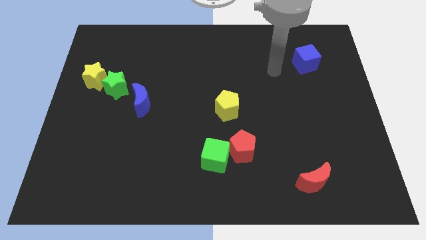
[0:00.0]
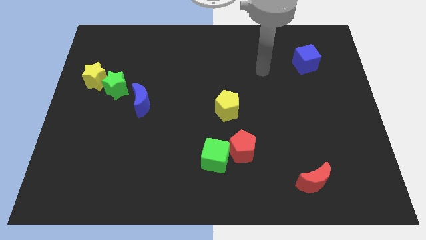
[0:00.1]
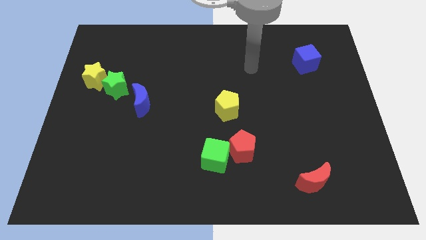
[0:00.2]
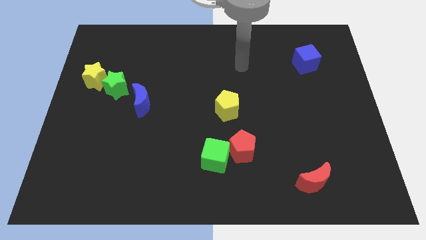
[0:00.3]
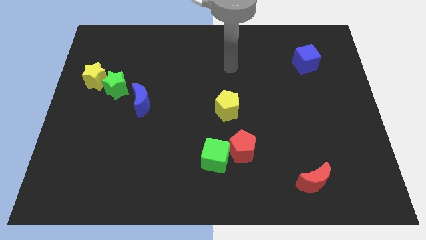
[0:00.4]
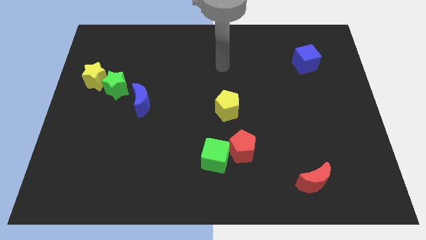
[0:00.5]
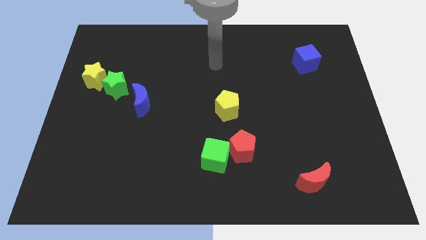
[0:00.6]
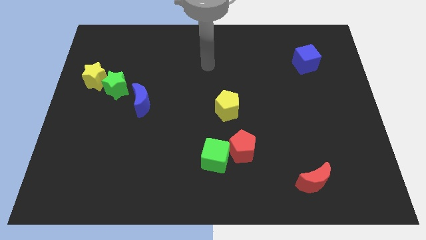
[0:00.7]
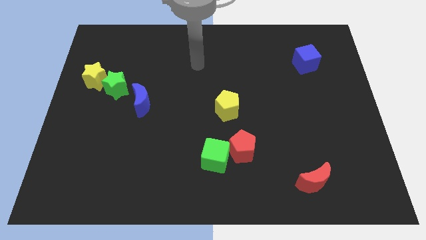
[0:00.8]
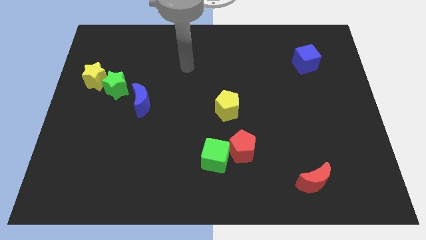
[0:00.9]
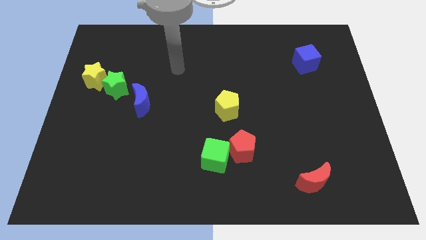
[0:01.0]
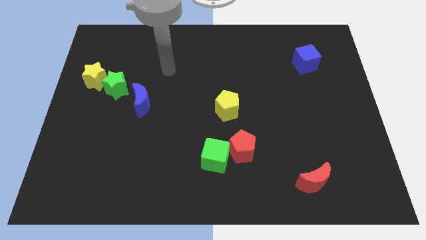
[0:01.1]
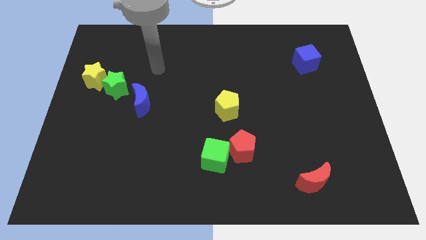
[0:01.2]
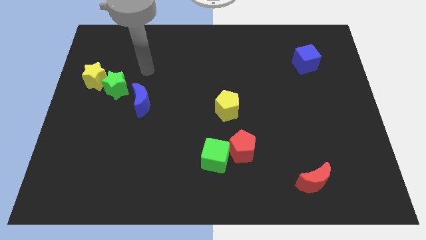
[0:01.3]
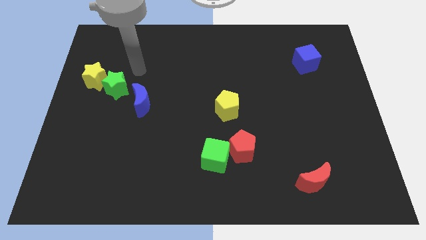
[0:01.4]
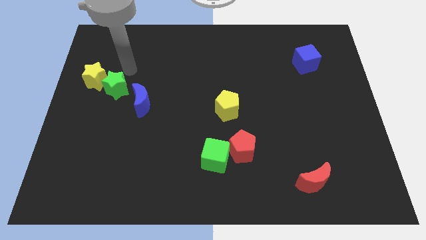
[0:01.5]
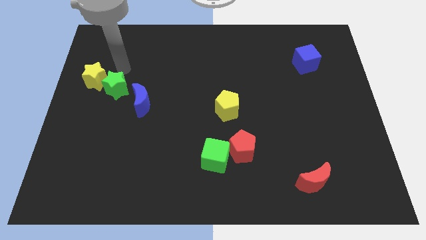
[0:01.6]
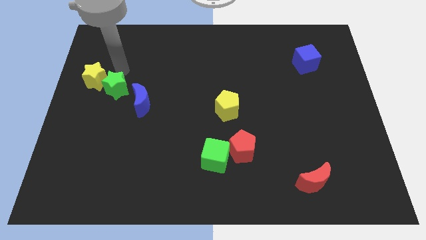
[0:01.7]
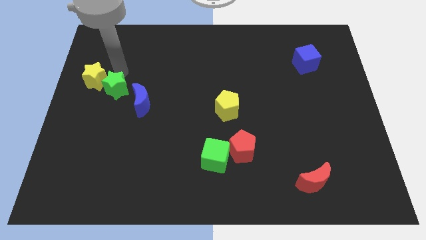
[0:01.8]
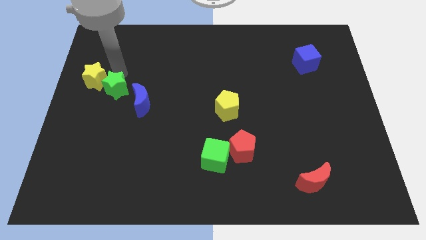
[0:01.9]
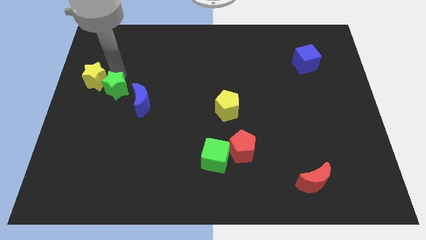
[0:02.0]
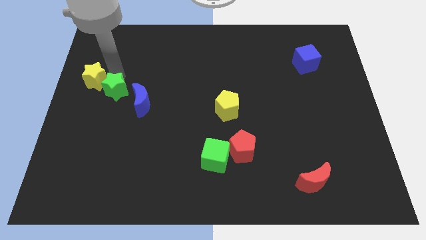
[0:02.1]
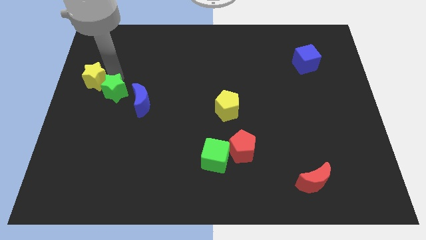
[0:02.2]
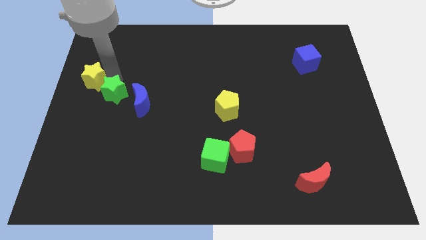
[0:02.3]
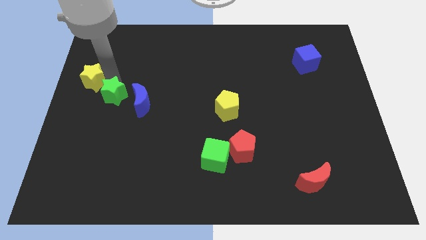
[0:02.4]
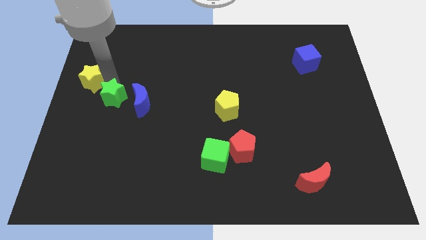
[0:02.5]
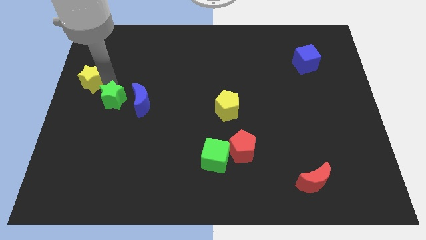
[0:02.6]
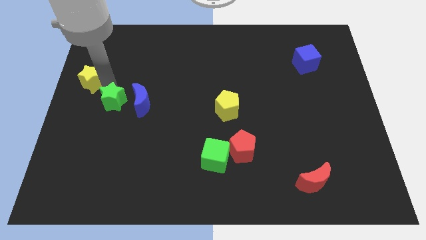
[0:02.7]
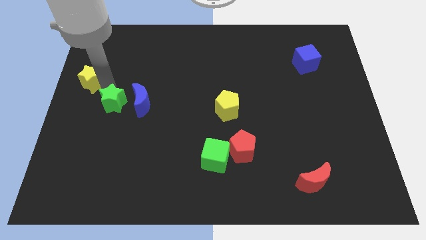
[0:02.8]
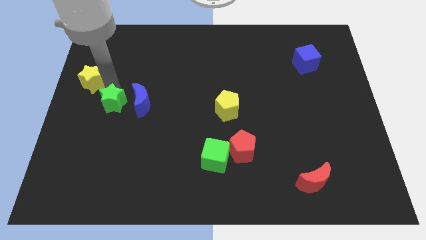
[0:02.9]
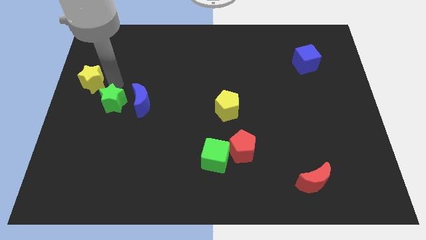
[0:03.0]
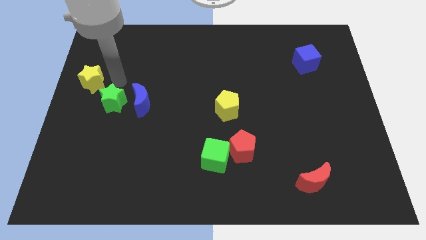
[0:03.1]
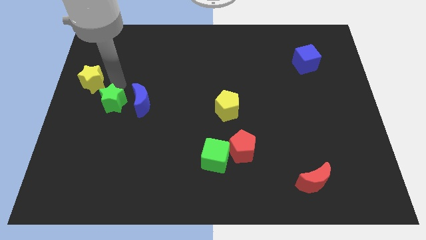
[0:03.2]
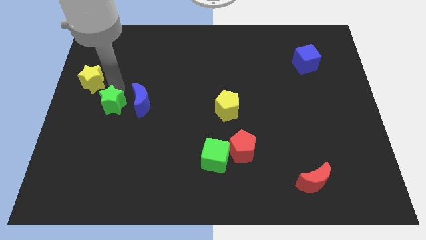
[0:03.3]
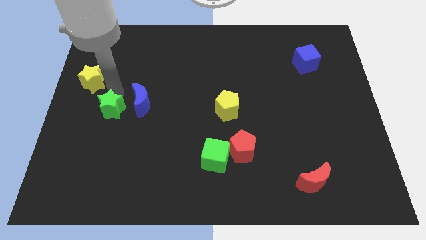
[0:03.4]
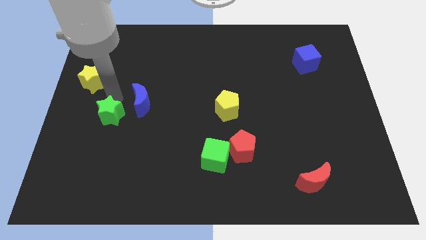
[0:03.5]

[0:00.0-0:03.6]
slightly push the green star downwards

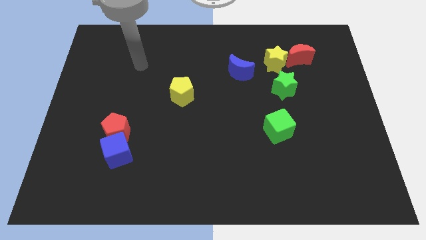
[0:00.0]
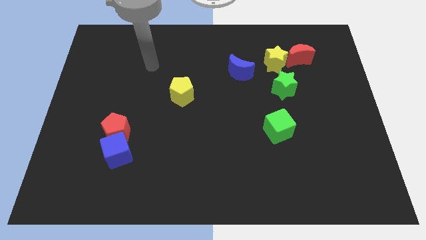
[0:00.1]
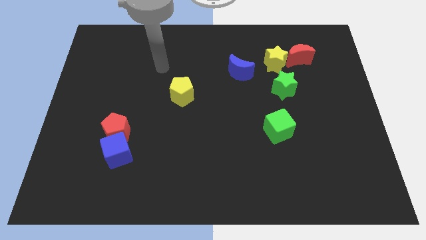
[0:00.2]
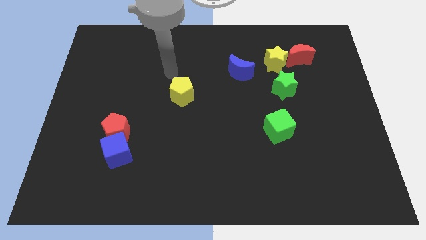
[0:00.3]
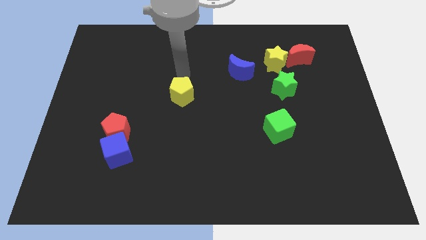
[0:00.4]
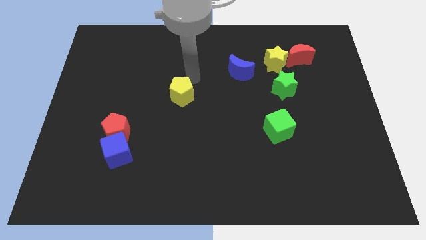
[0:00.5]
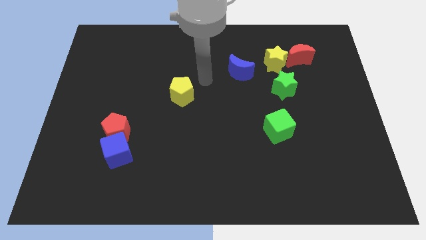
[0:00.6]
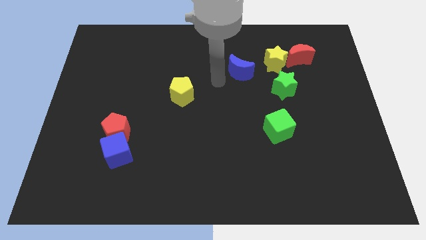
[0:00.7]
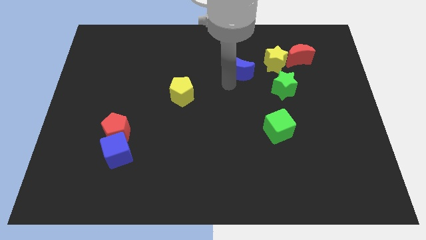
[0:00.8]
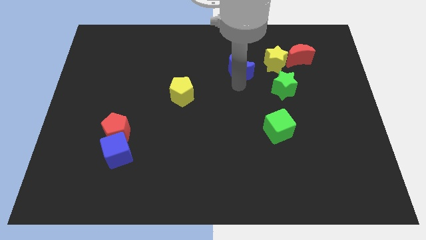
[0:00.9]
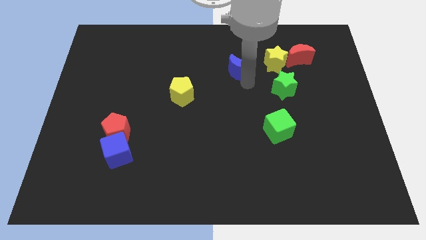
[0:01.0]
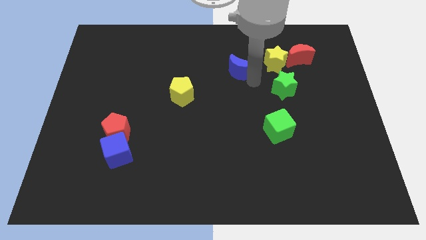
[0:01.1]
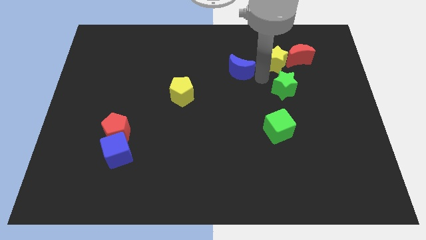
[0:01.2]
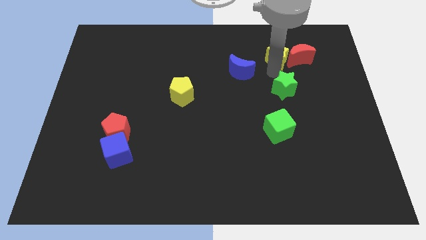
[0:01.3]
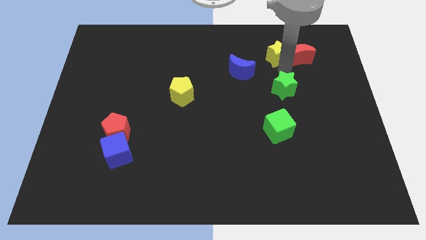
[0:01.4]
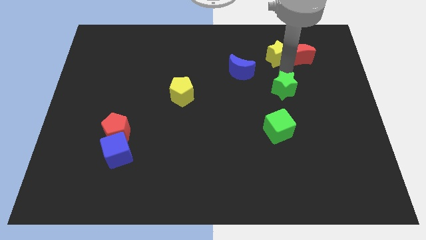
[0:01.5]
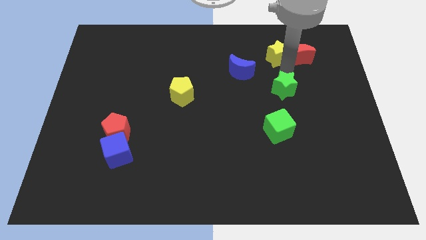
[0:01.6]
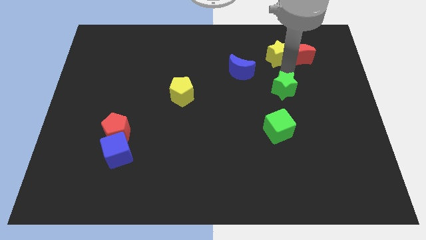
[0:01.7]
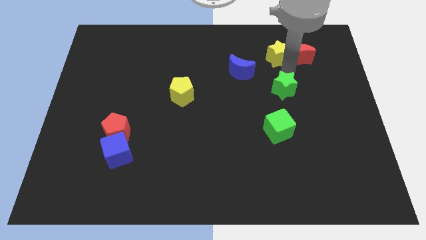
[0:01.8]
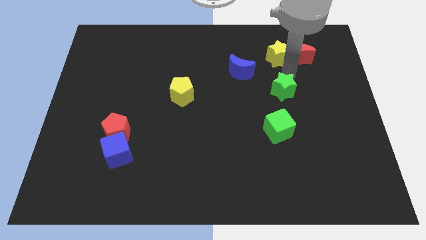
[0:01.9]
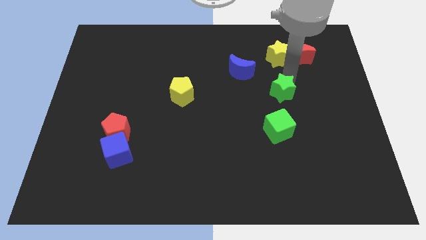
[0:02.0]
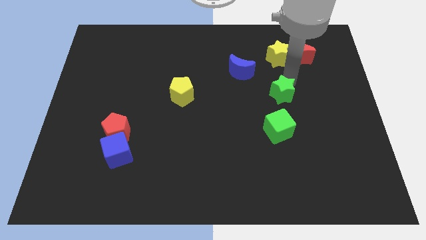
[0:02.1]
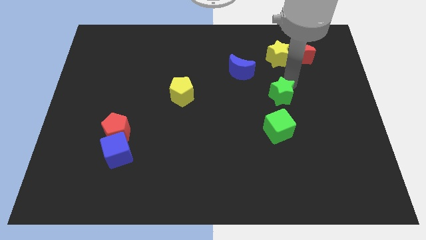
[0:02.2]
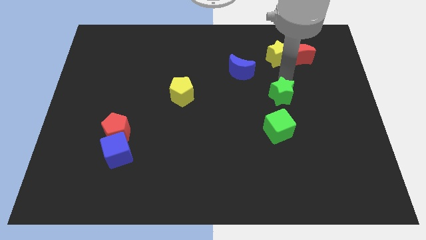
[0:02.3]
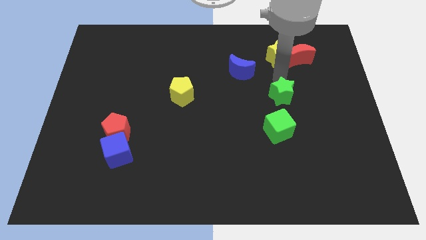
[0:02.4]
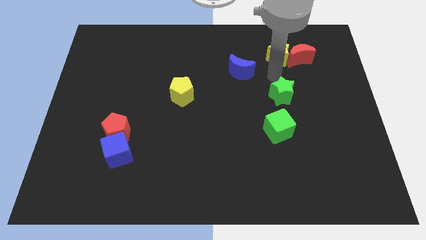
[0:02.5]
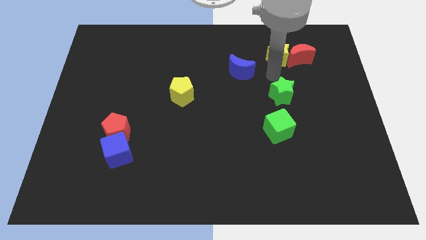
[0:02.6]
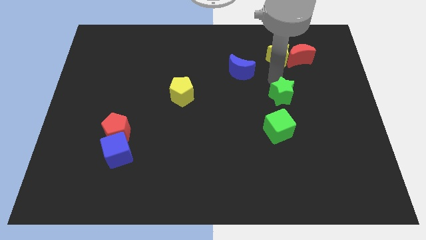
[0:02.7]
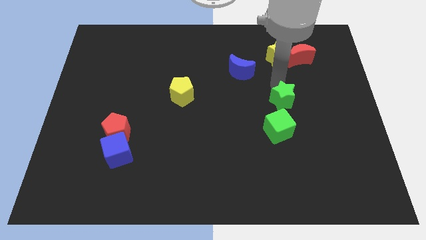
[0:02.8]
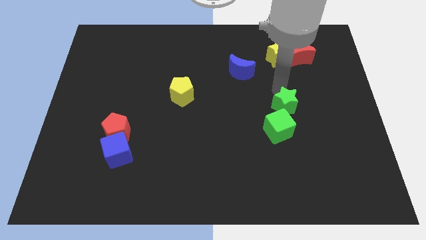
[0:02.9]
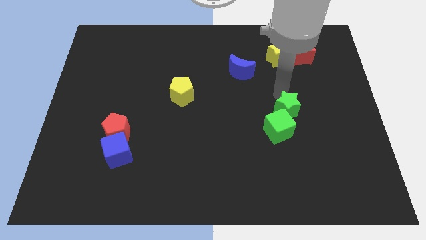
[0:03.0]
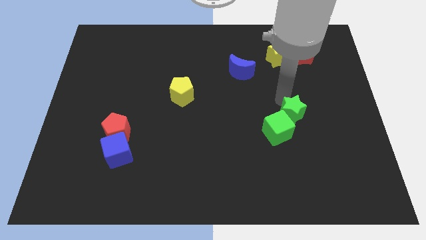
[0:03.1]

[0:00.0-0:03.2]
move the green star down a little bit

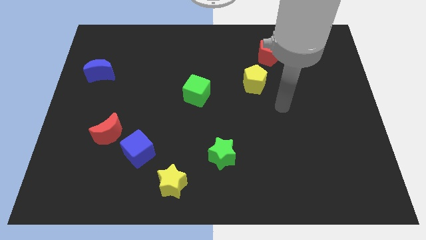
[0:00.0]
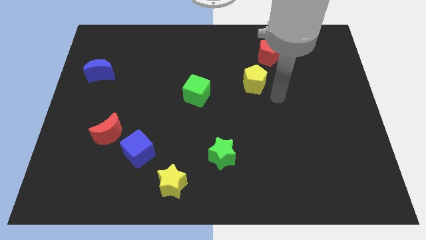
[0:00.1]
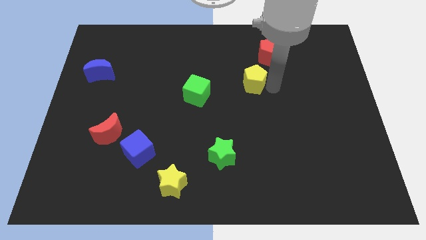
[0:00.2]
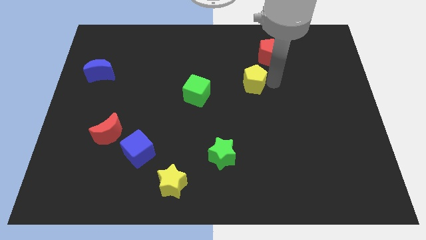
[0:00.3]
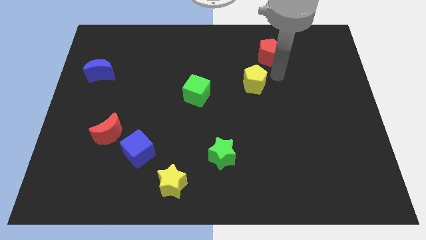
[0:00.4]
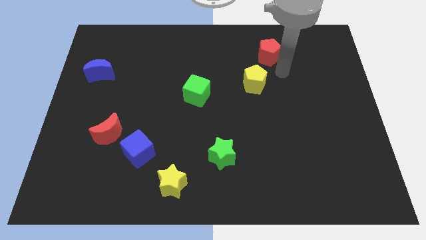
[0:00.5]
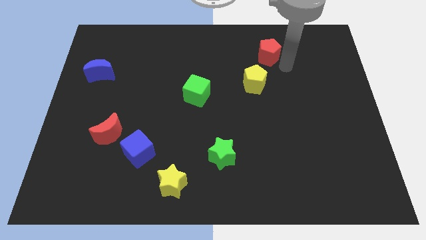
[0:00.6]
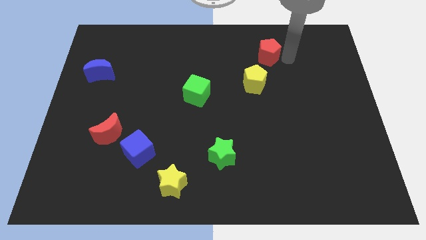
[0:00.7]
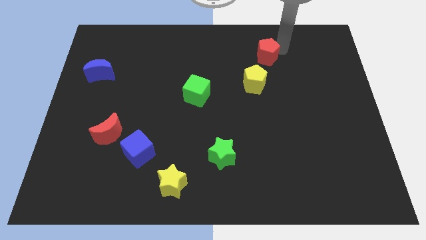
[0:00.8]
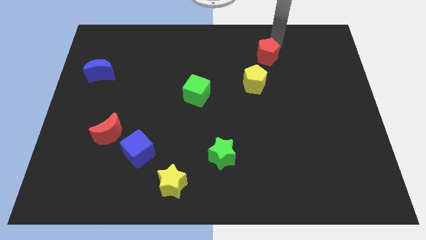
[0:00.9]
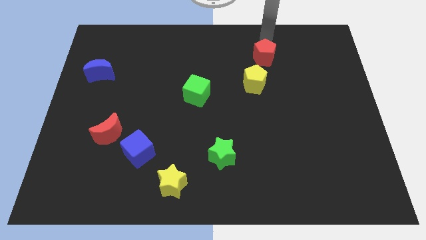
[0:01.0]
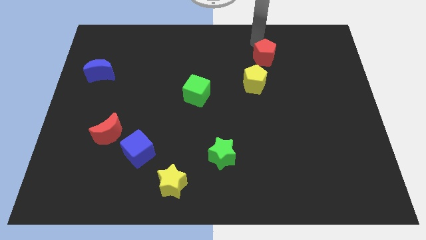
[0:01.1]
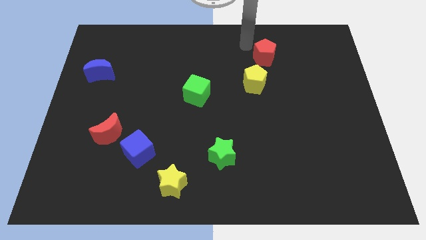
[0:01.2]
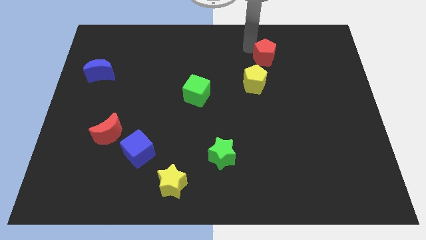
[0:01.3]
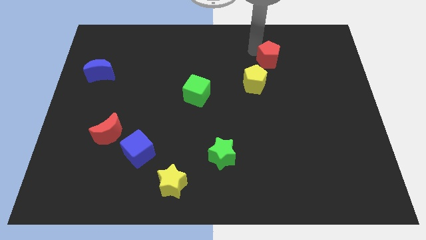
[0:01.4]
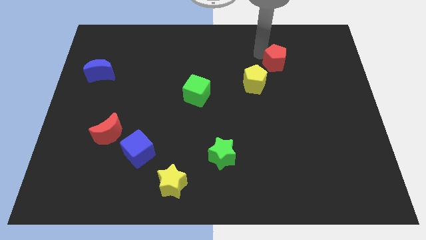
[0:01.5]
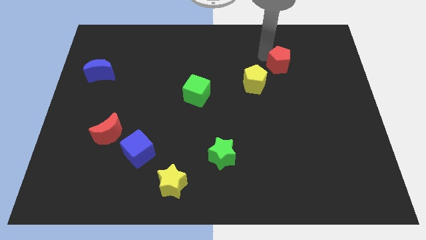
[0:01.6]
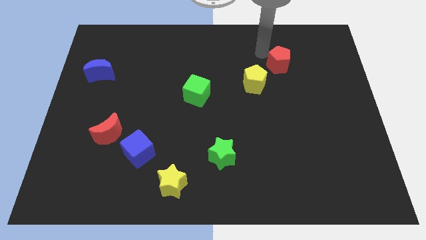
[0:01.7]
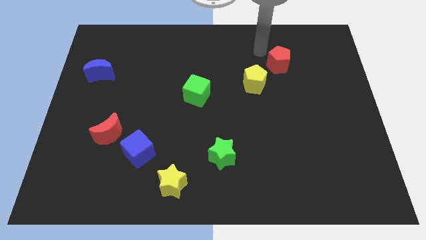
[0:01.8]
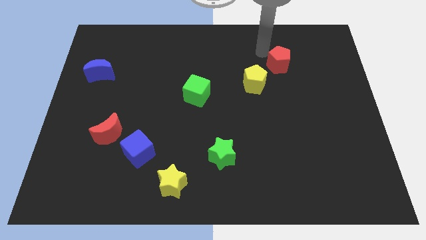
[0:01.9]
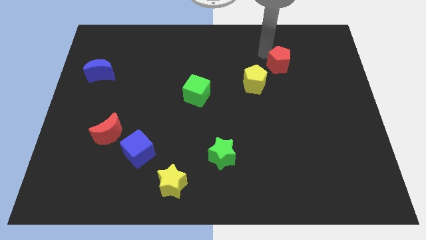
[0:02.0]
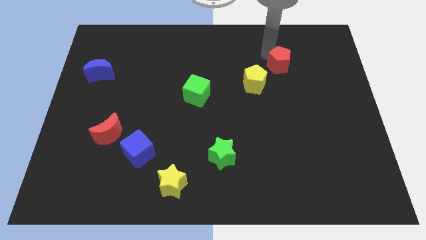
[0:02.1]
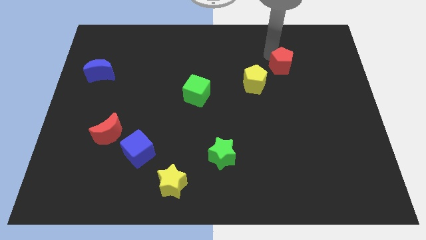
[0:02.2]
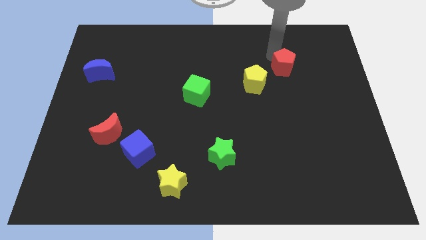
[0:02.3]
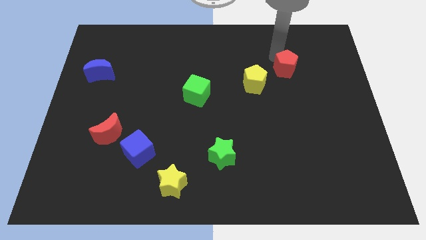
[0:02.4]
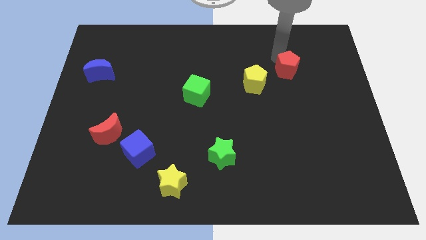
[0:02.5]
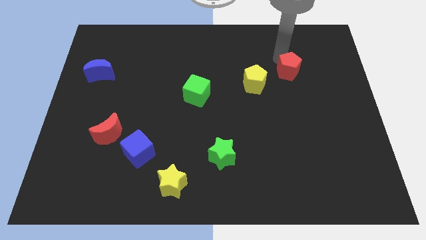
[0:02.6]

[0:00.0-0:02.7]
move the red pentagon downwards and then right a little
